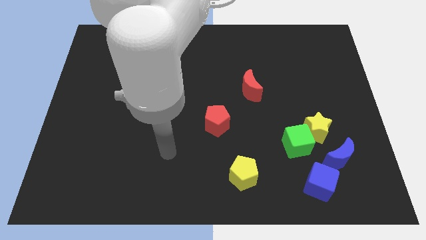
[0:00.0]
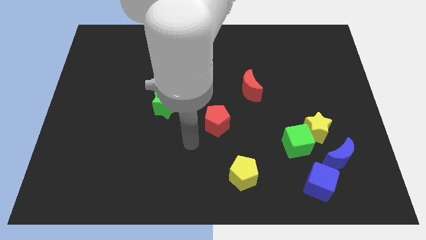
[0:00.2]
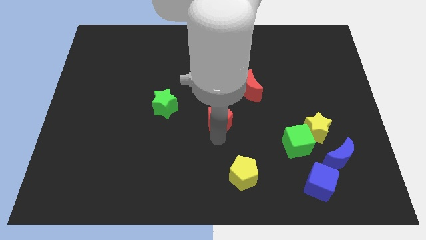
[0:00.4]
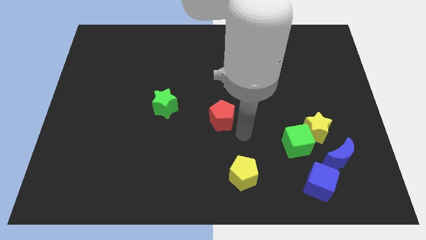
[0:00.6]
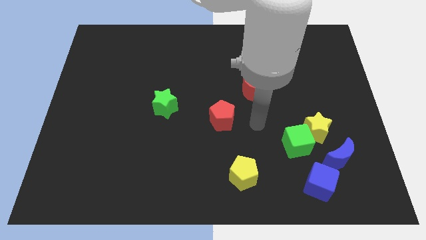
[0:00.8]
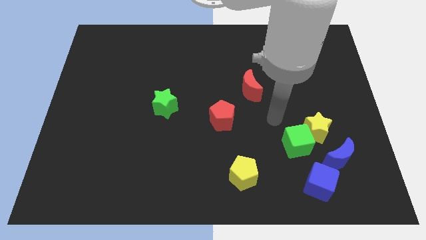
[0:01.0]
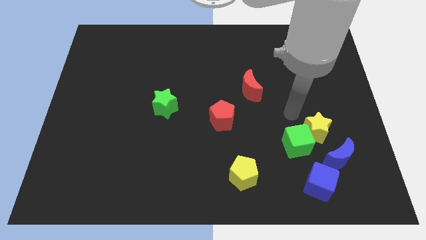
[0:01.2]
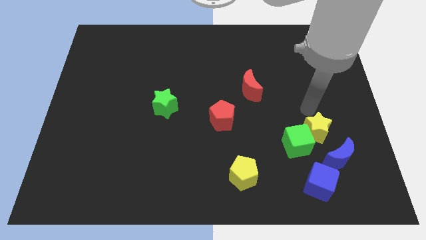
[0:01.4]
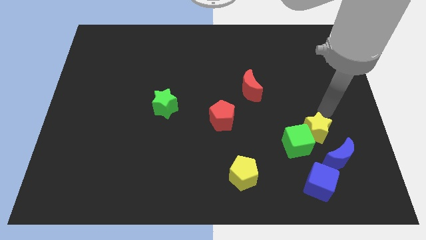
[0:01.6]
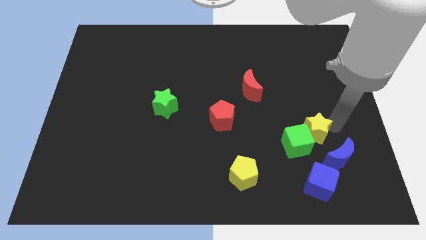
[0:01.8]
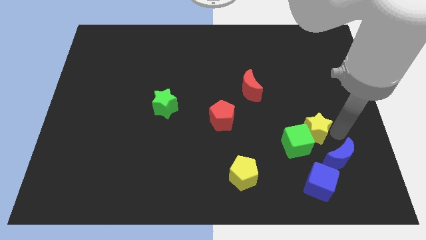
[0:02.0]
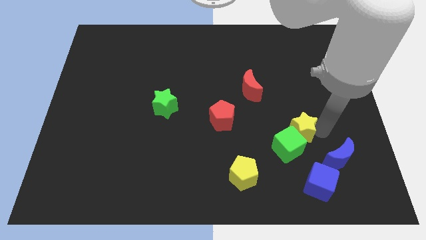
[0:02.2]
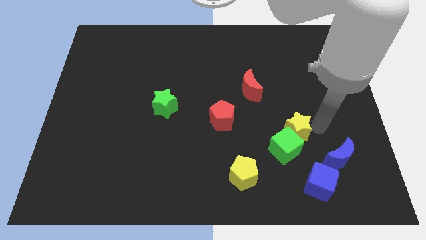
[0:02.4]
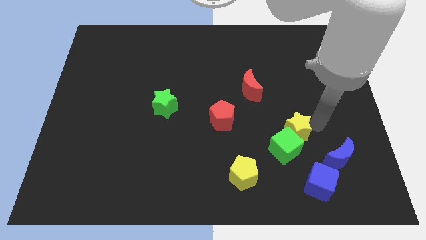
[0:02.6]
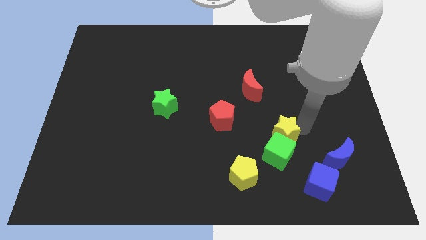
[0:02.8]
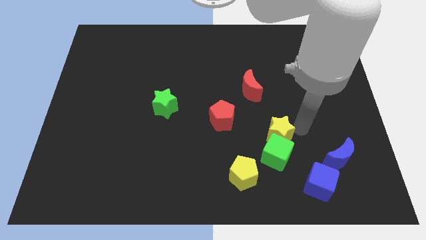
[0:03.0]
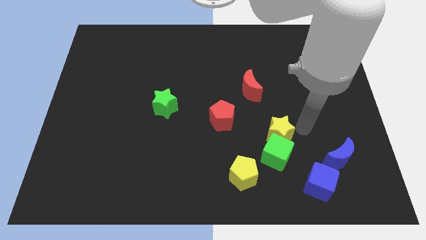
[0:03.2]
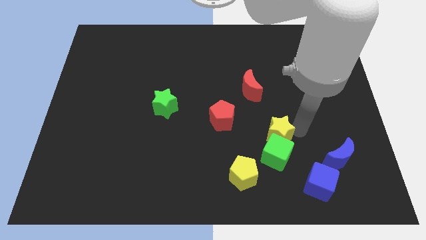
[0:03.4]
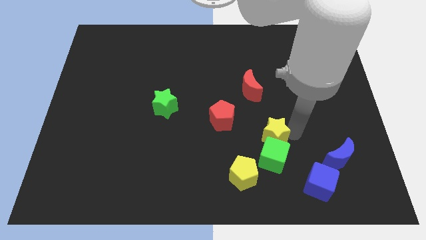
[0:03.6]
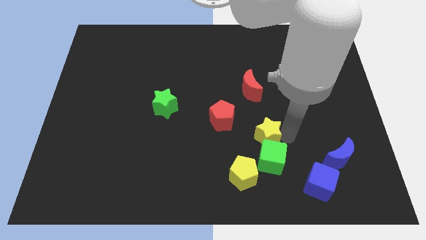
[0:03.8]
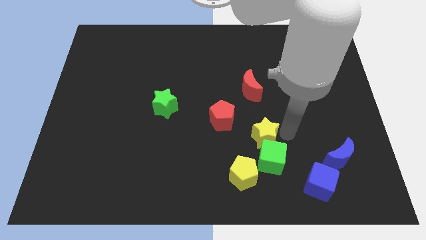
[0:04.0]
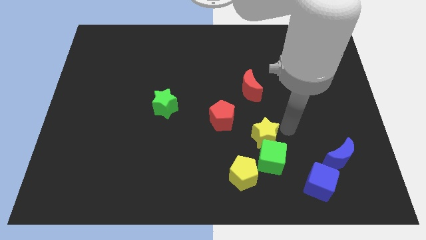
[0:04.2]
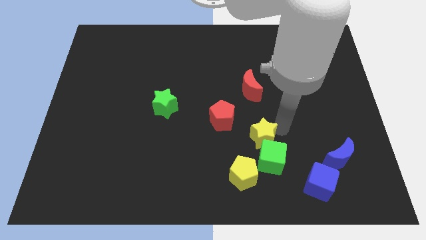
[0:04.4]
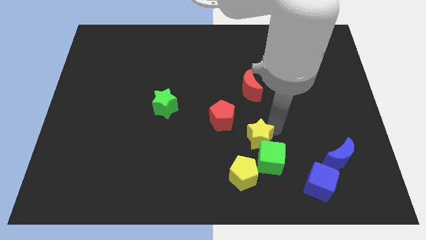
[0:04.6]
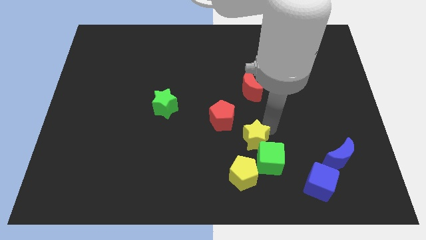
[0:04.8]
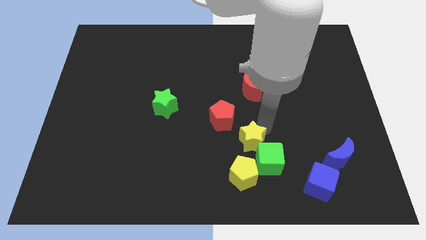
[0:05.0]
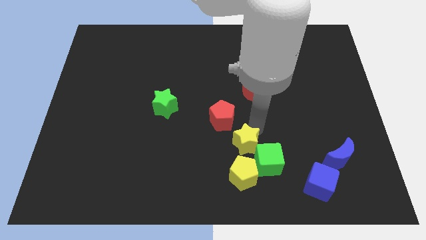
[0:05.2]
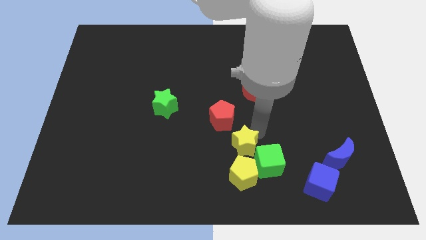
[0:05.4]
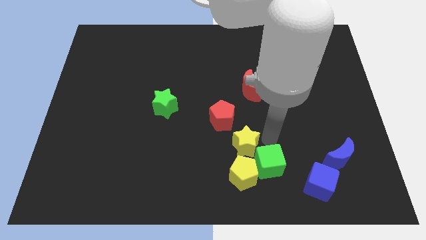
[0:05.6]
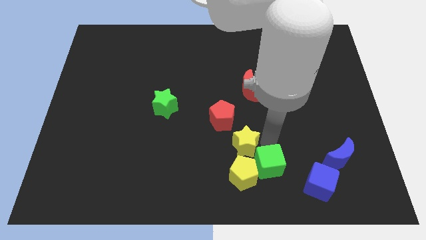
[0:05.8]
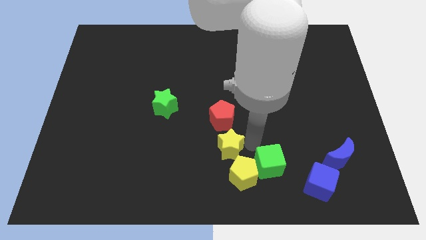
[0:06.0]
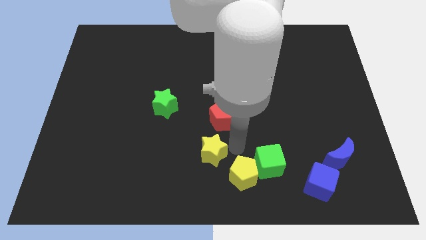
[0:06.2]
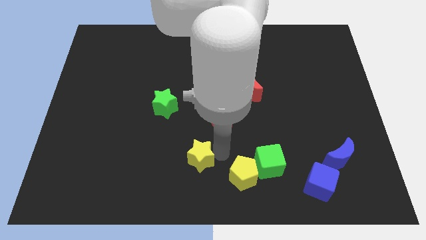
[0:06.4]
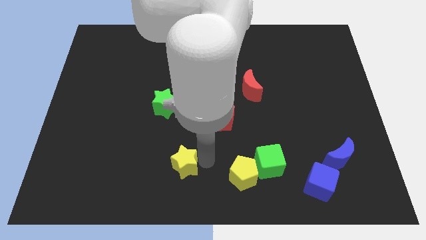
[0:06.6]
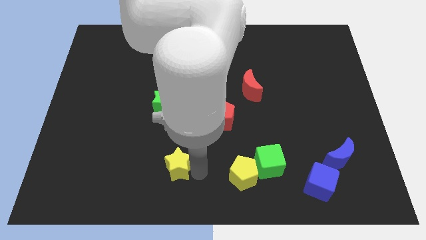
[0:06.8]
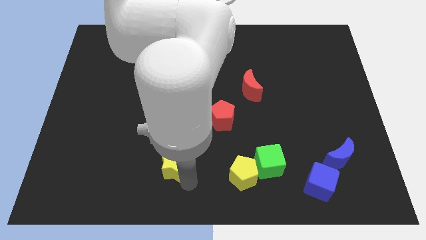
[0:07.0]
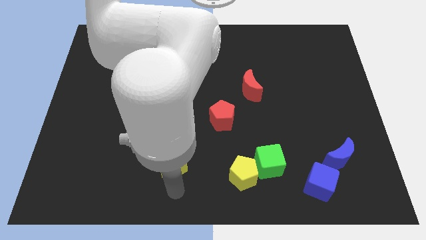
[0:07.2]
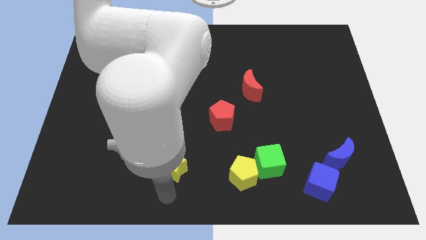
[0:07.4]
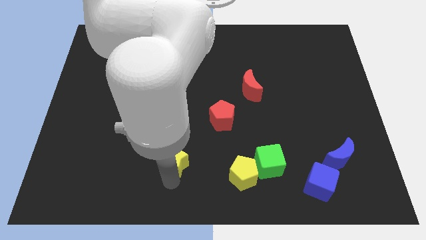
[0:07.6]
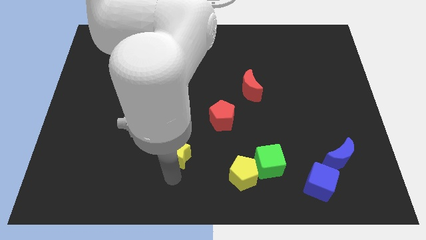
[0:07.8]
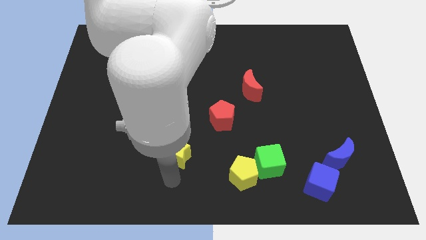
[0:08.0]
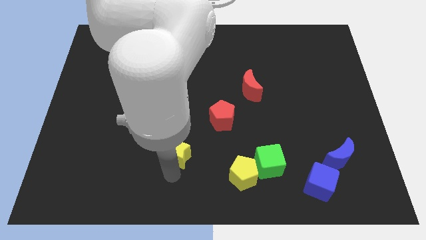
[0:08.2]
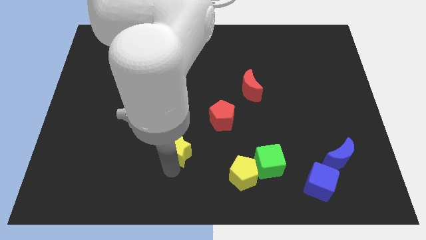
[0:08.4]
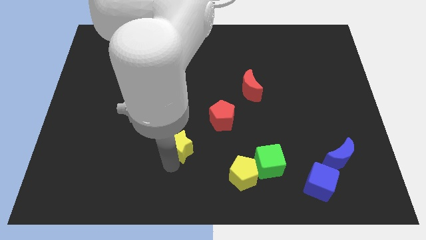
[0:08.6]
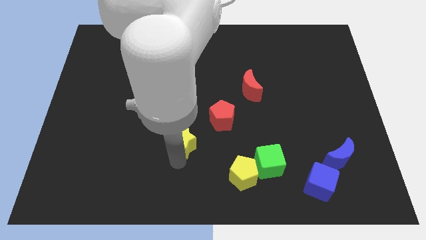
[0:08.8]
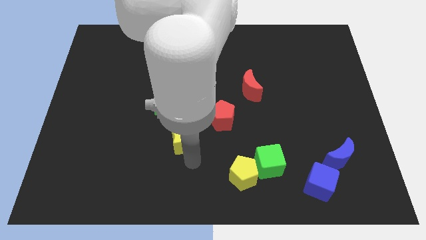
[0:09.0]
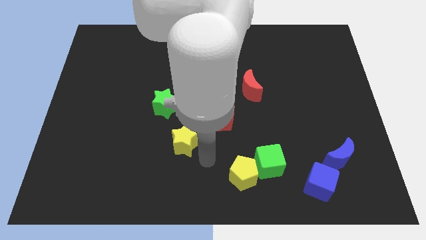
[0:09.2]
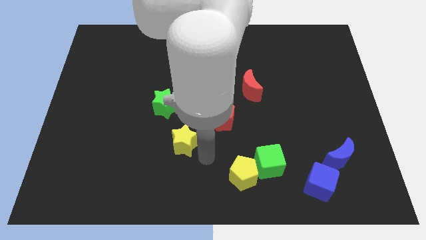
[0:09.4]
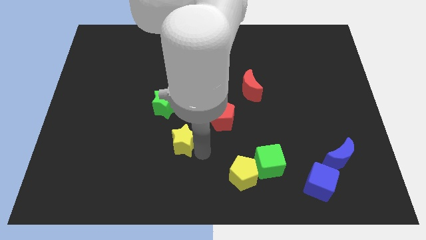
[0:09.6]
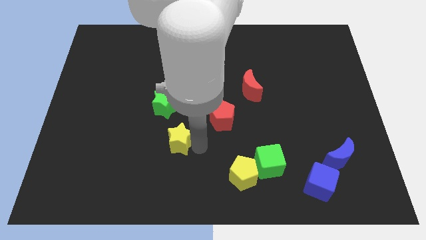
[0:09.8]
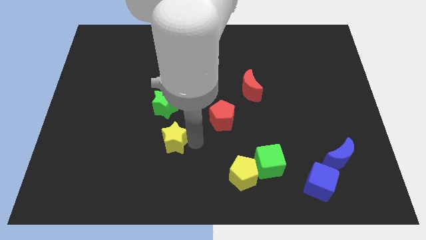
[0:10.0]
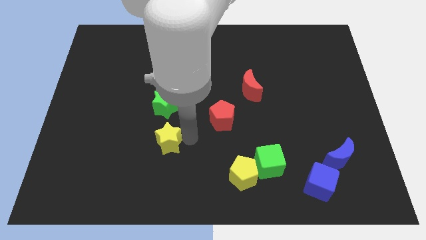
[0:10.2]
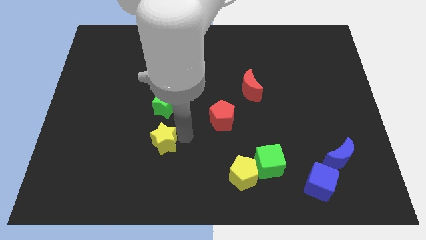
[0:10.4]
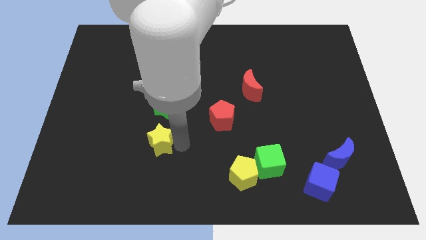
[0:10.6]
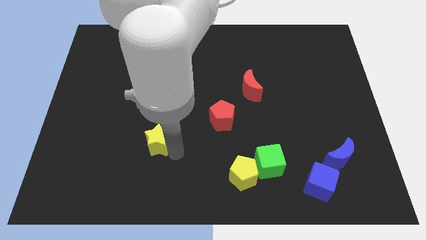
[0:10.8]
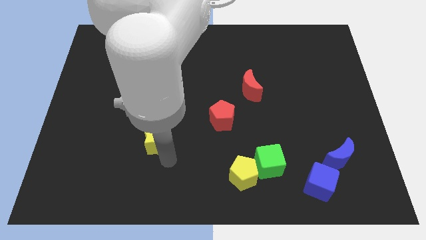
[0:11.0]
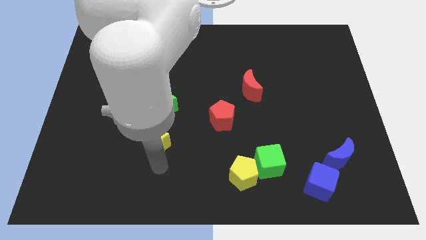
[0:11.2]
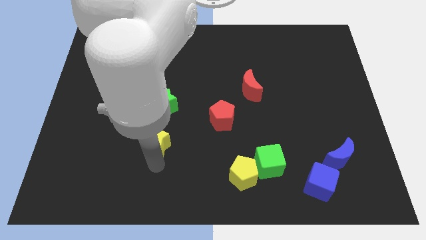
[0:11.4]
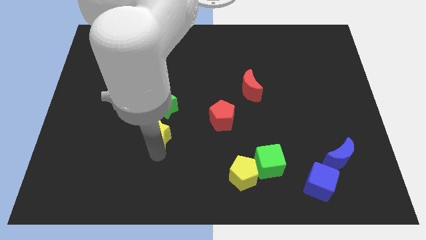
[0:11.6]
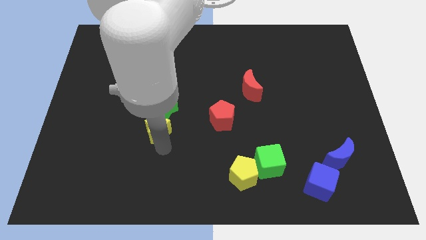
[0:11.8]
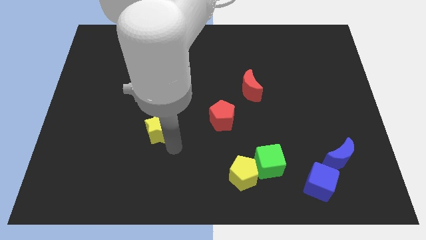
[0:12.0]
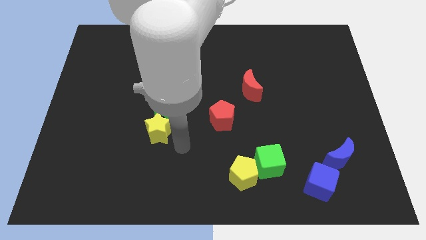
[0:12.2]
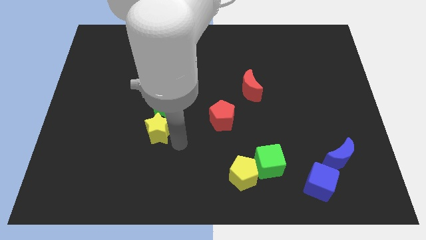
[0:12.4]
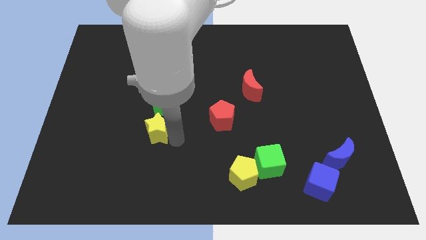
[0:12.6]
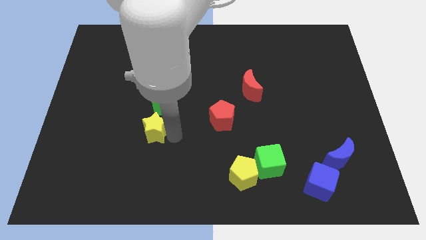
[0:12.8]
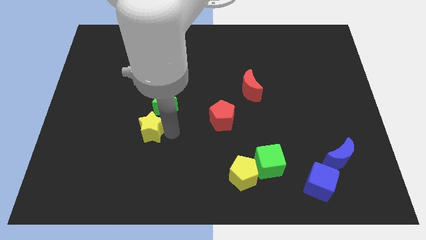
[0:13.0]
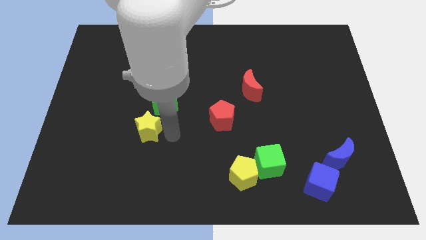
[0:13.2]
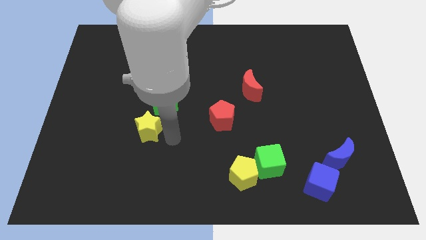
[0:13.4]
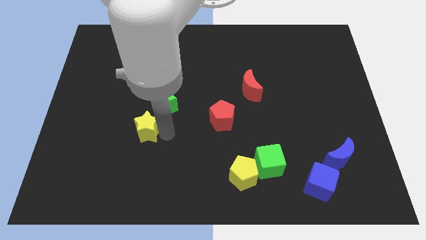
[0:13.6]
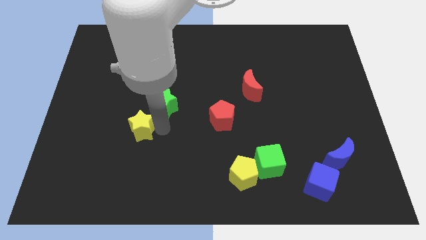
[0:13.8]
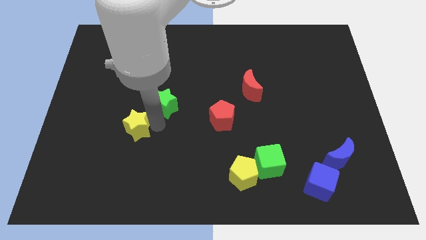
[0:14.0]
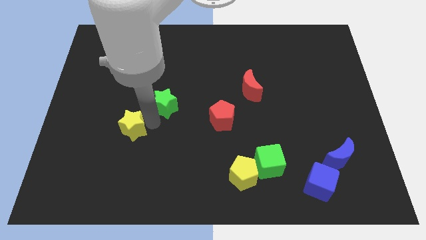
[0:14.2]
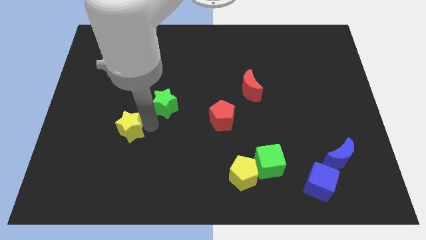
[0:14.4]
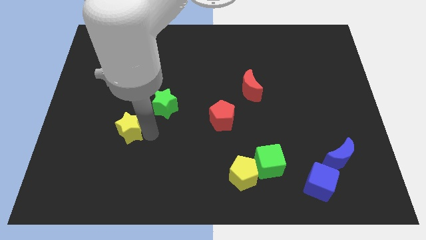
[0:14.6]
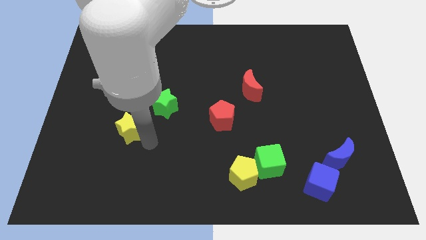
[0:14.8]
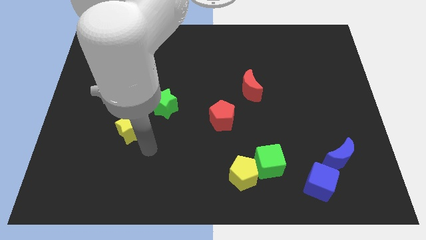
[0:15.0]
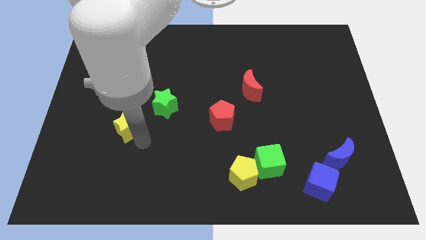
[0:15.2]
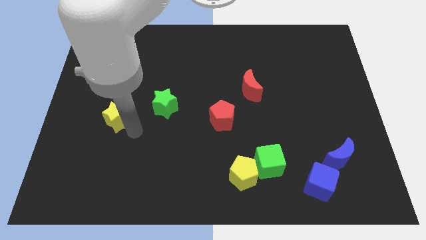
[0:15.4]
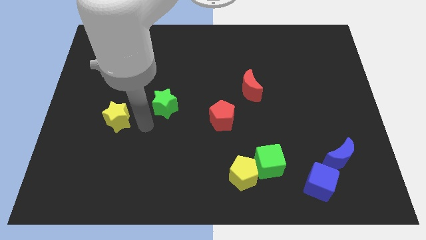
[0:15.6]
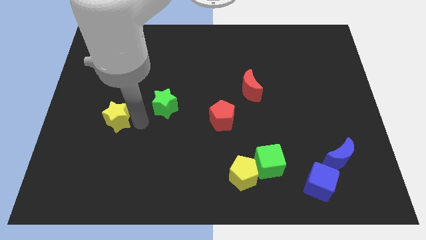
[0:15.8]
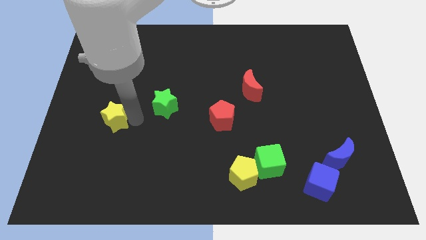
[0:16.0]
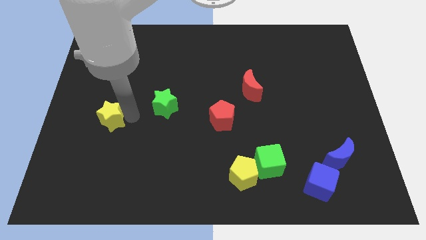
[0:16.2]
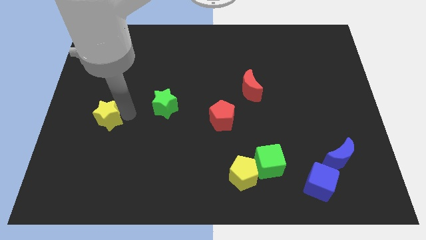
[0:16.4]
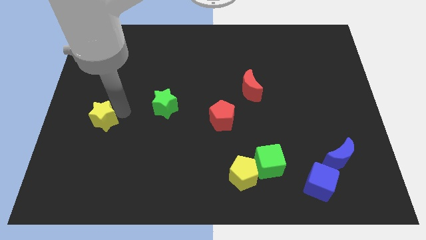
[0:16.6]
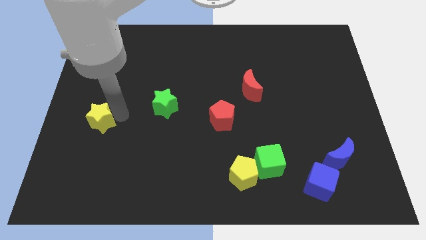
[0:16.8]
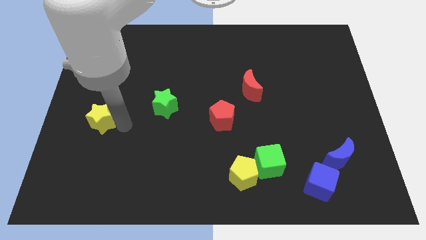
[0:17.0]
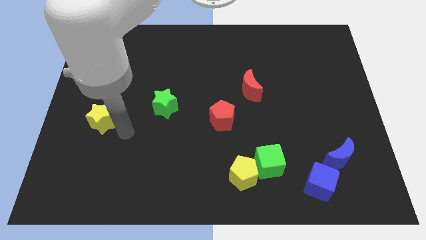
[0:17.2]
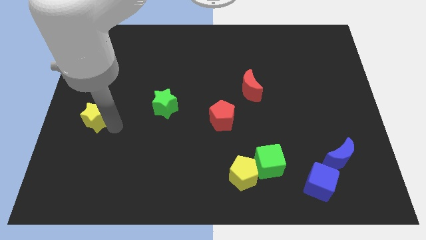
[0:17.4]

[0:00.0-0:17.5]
move the yellow star to the center left
